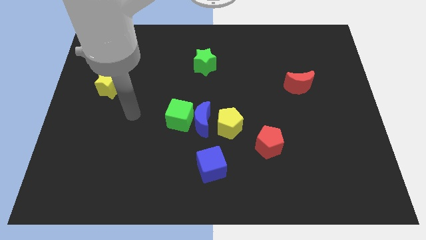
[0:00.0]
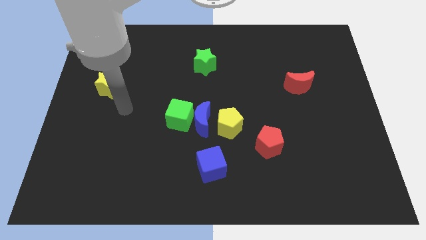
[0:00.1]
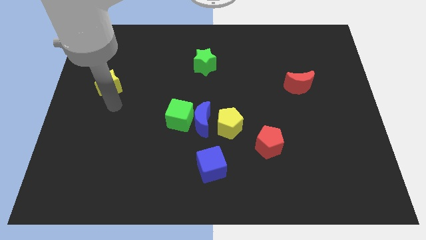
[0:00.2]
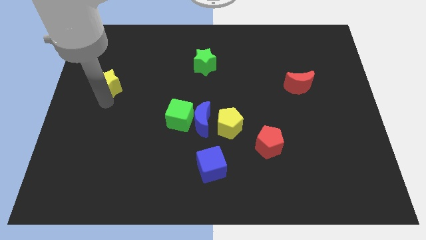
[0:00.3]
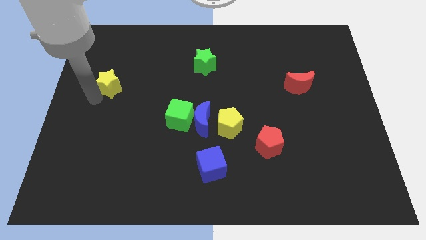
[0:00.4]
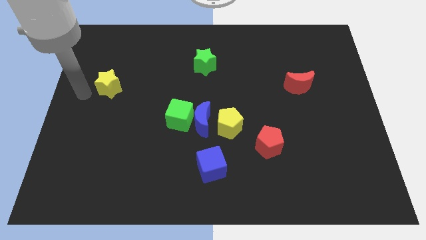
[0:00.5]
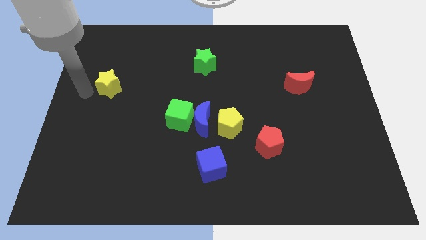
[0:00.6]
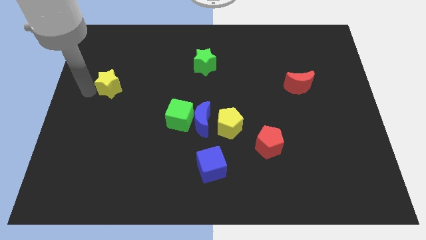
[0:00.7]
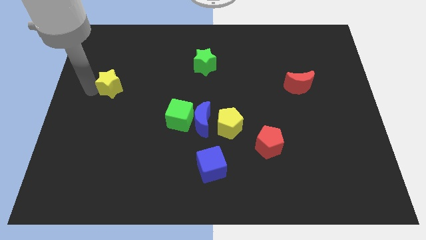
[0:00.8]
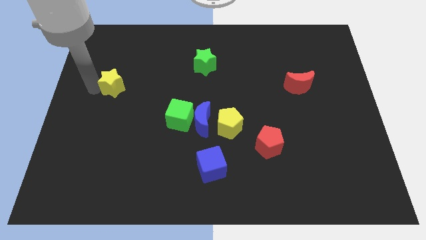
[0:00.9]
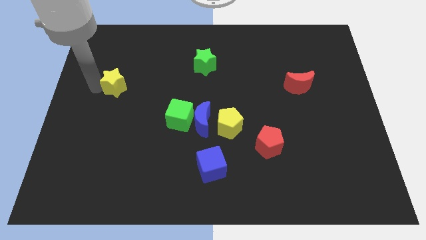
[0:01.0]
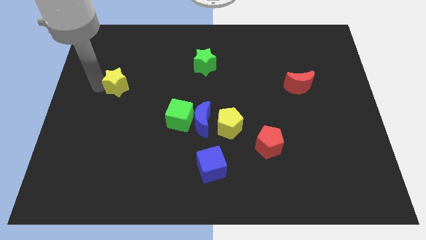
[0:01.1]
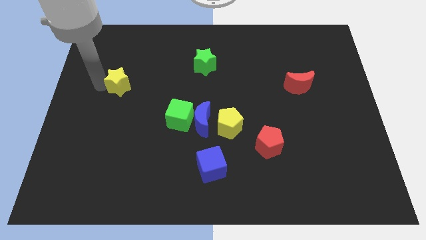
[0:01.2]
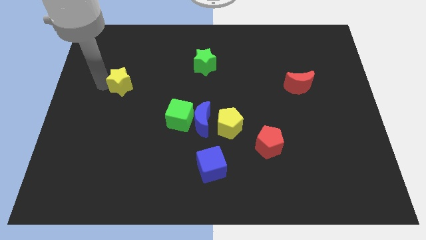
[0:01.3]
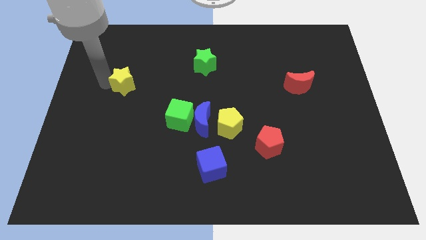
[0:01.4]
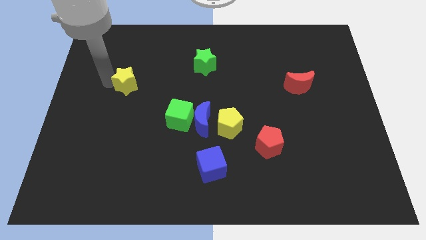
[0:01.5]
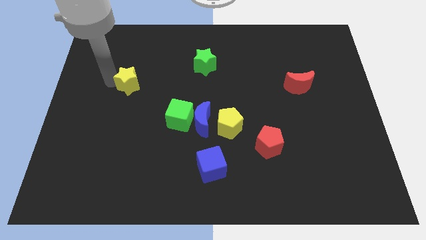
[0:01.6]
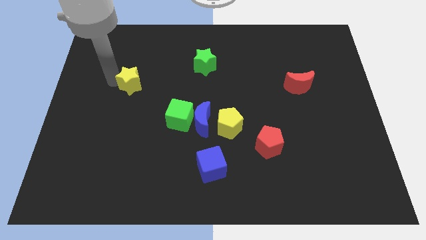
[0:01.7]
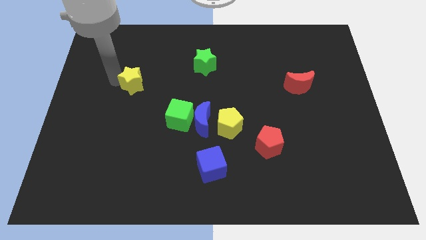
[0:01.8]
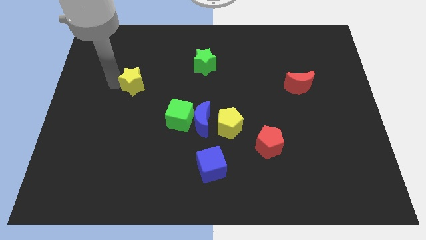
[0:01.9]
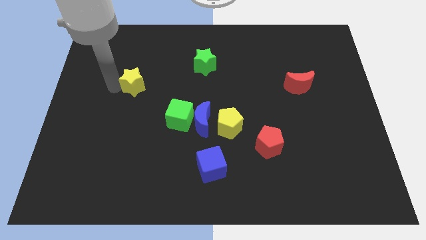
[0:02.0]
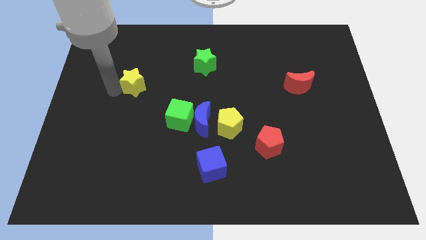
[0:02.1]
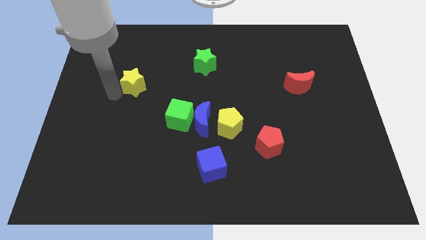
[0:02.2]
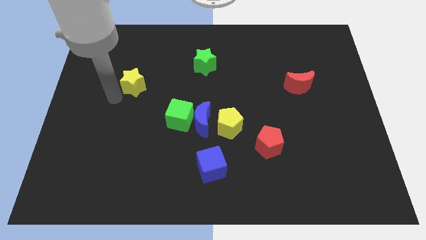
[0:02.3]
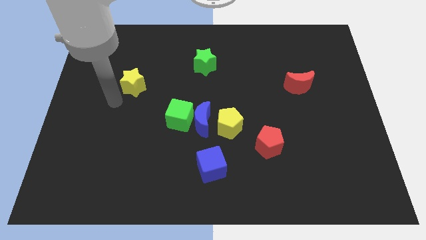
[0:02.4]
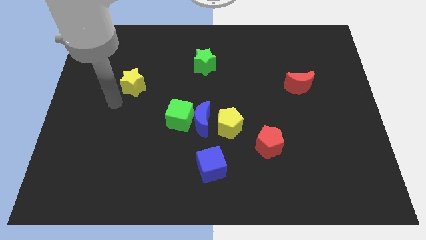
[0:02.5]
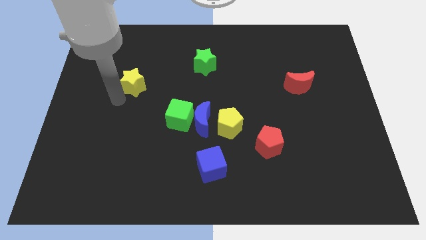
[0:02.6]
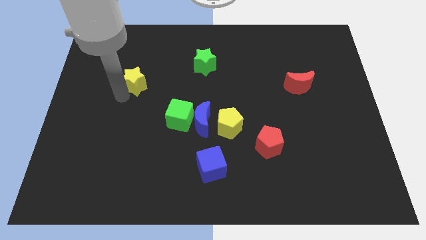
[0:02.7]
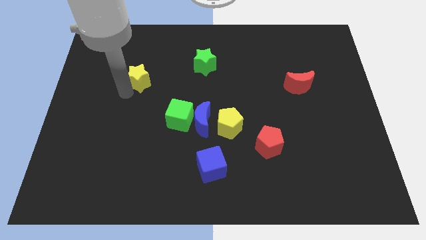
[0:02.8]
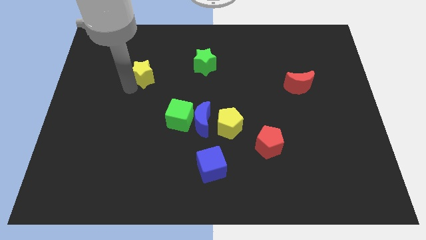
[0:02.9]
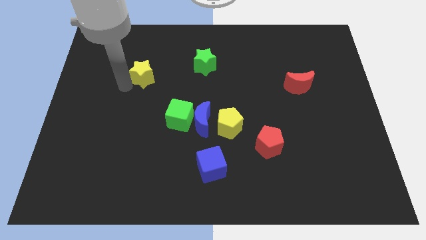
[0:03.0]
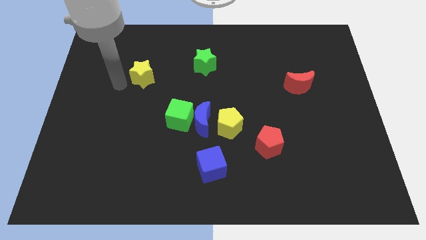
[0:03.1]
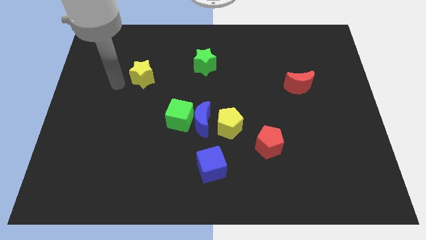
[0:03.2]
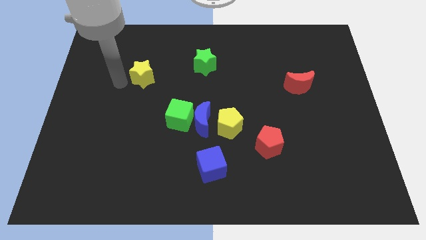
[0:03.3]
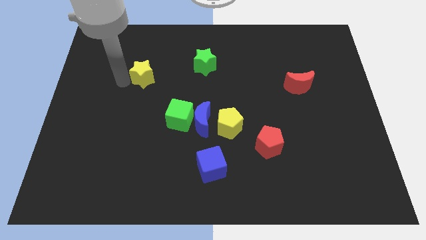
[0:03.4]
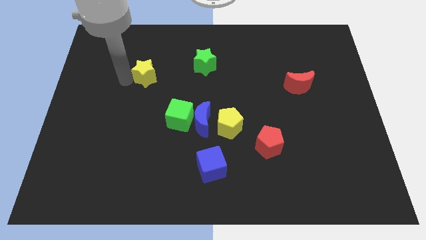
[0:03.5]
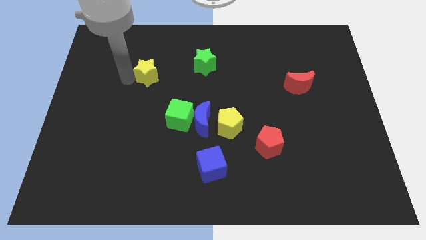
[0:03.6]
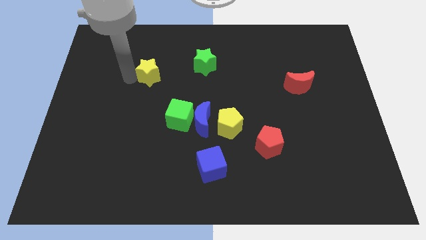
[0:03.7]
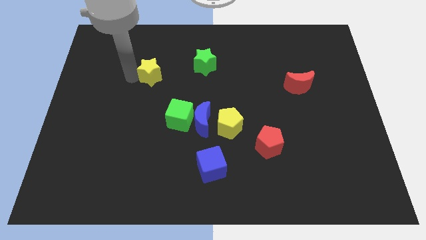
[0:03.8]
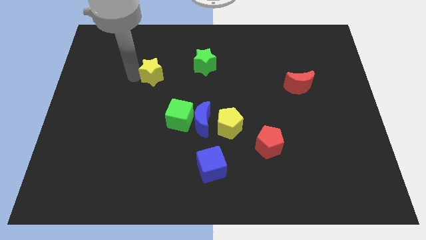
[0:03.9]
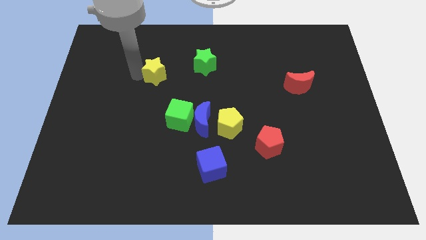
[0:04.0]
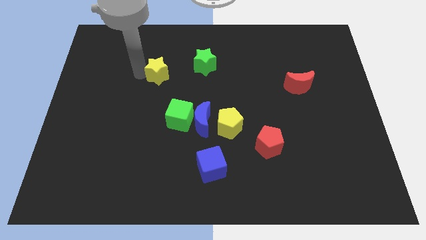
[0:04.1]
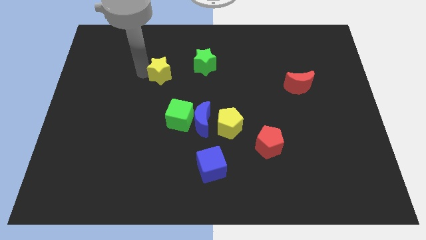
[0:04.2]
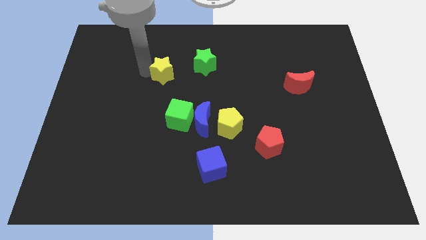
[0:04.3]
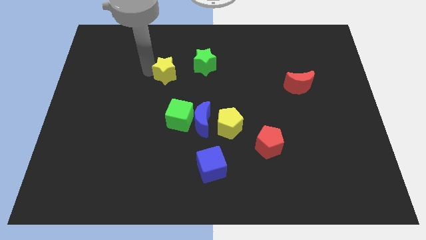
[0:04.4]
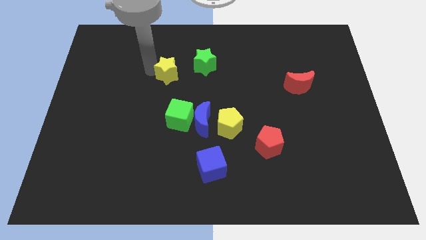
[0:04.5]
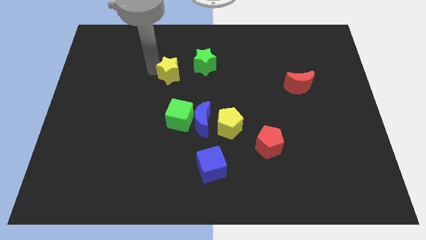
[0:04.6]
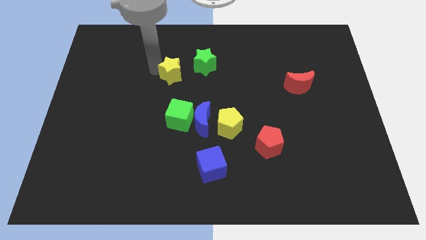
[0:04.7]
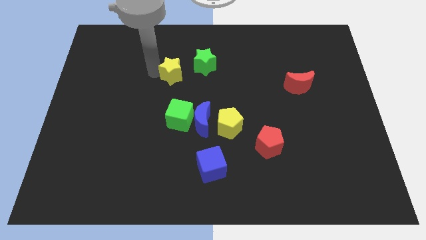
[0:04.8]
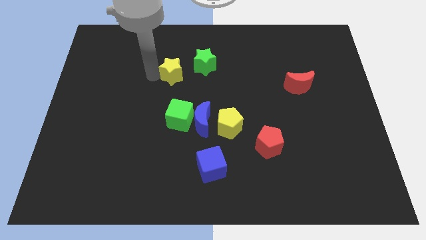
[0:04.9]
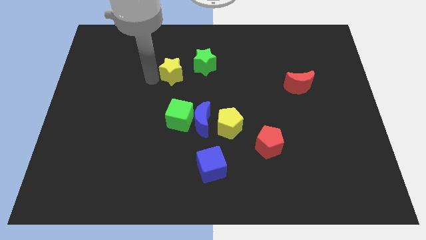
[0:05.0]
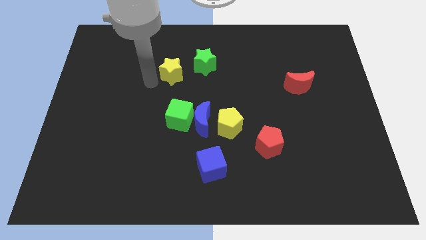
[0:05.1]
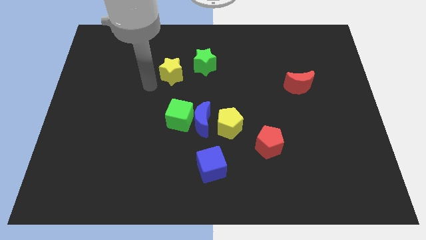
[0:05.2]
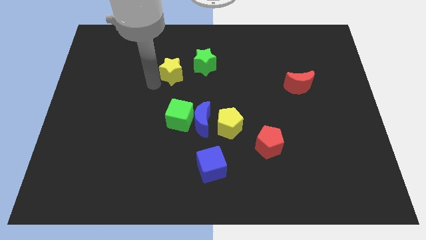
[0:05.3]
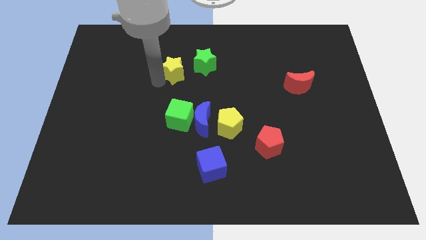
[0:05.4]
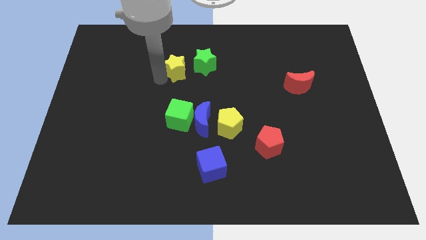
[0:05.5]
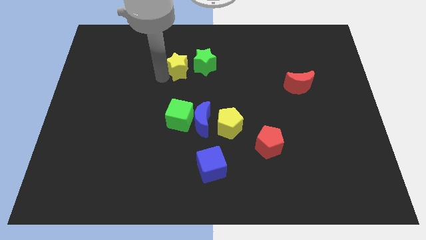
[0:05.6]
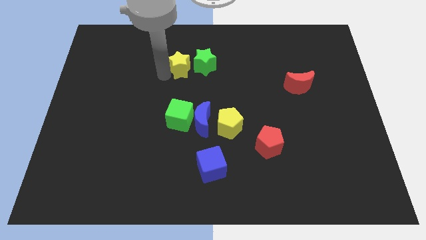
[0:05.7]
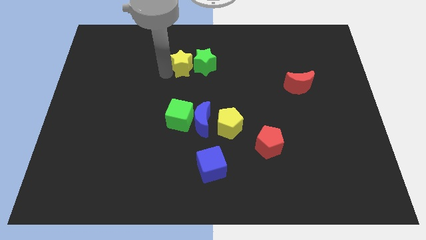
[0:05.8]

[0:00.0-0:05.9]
move the yellow star next to the green star

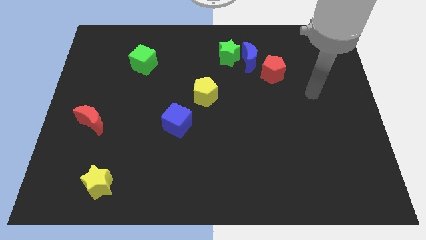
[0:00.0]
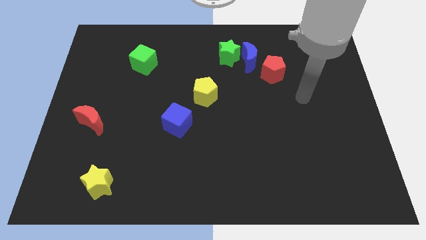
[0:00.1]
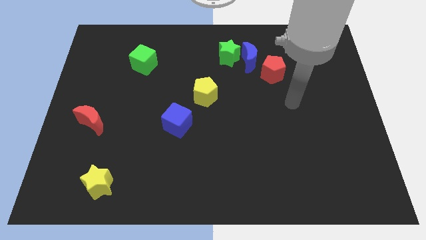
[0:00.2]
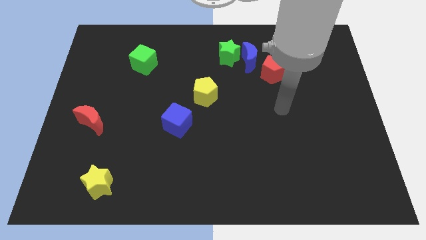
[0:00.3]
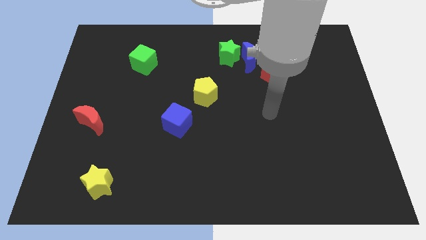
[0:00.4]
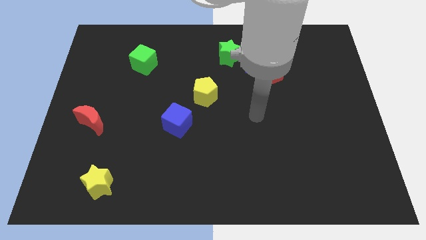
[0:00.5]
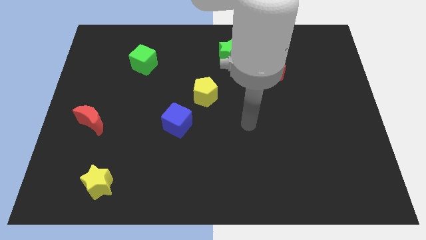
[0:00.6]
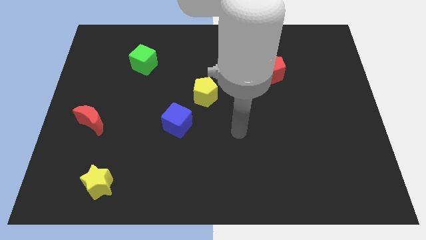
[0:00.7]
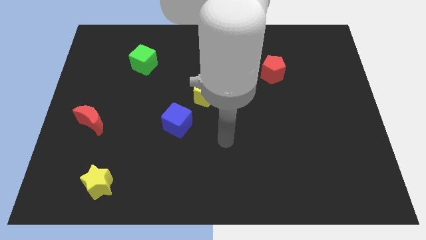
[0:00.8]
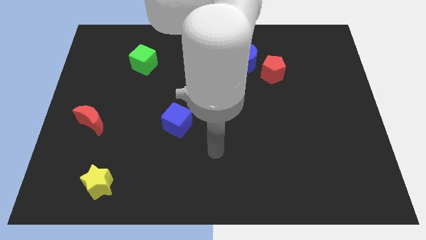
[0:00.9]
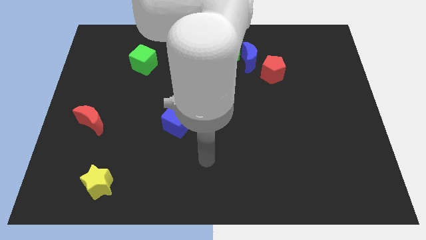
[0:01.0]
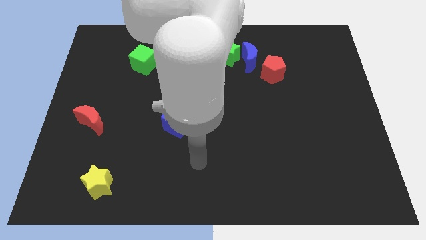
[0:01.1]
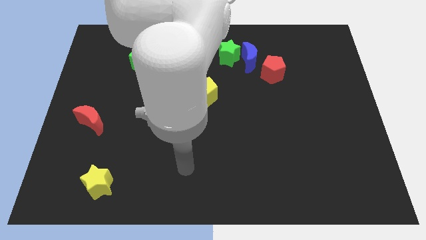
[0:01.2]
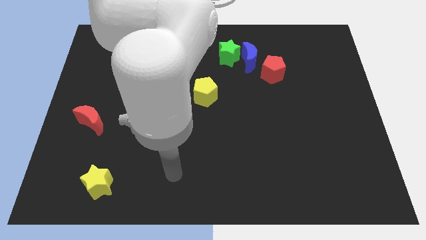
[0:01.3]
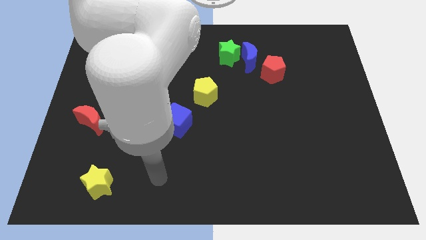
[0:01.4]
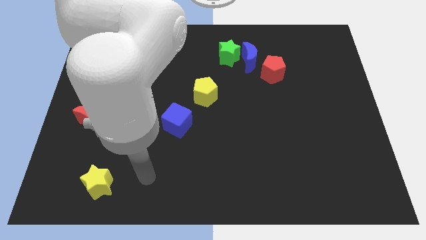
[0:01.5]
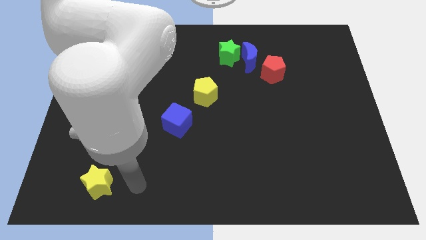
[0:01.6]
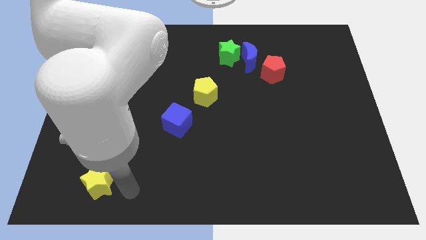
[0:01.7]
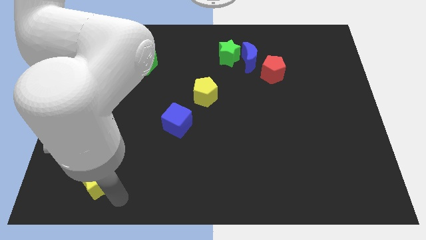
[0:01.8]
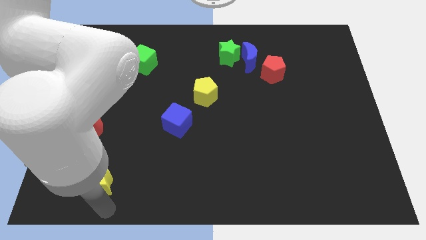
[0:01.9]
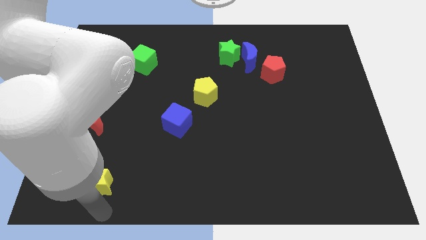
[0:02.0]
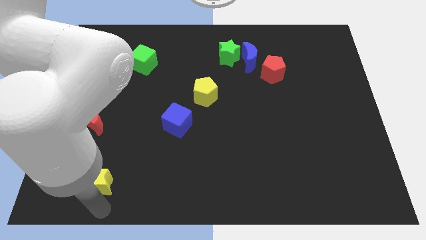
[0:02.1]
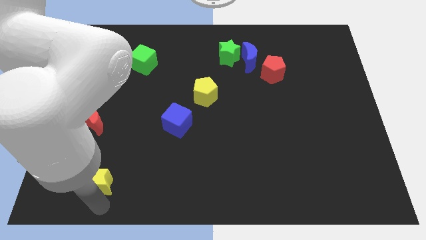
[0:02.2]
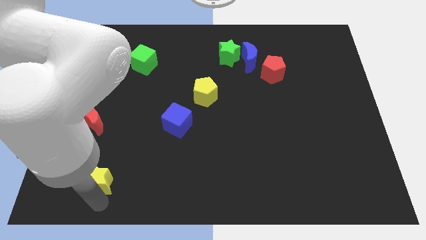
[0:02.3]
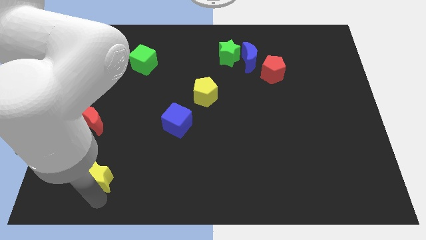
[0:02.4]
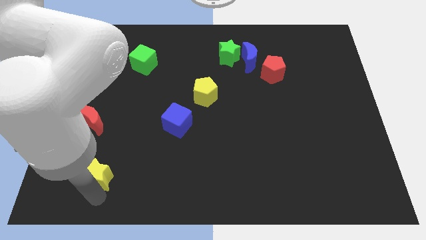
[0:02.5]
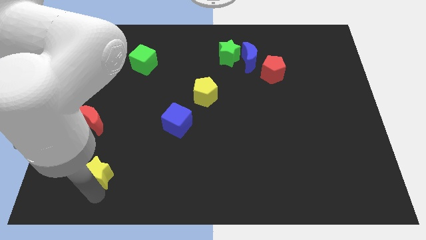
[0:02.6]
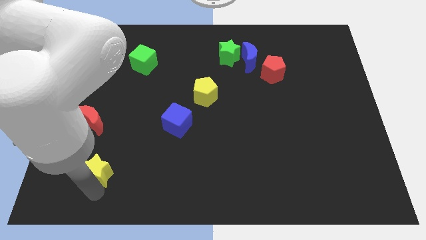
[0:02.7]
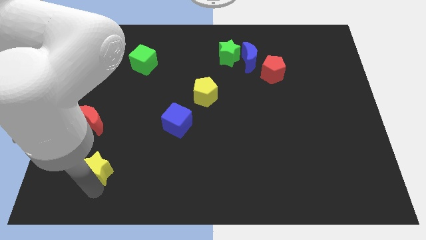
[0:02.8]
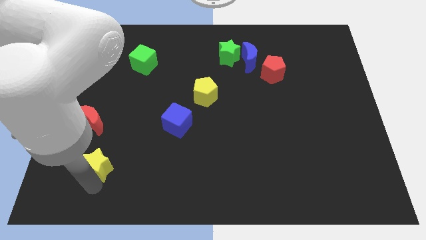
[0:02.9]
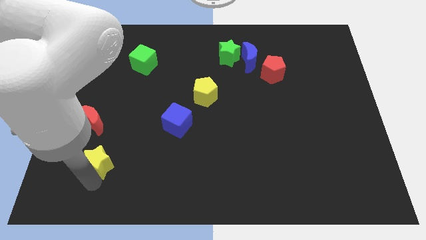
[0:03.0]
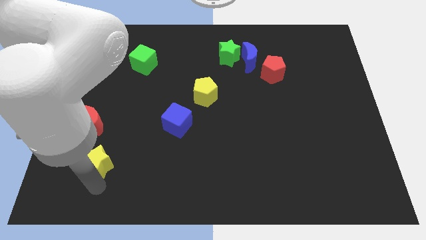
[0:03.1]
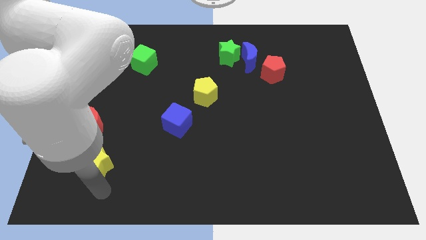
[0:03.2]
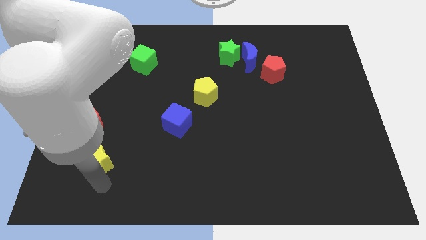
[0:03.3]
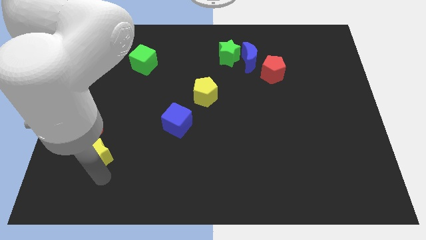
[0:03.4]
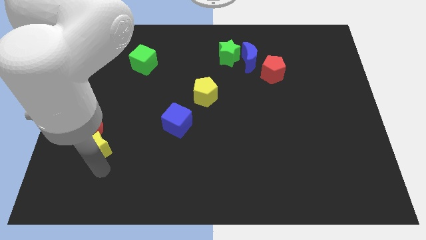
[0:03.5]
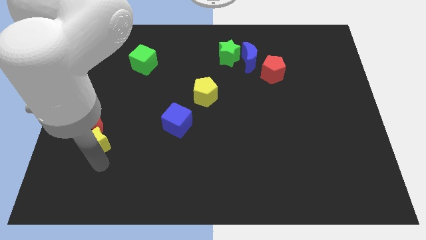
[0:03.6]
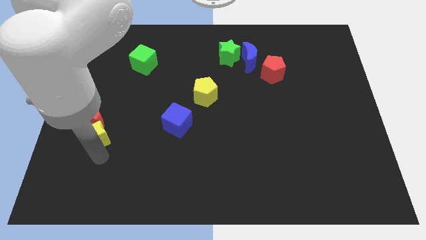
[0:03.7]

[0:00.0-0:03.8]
push the yellow star to the red moon
